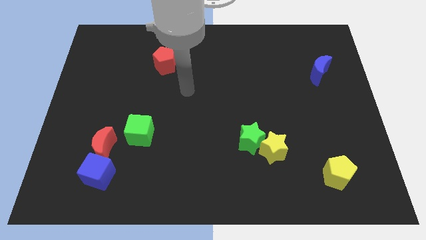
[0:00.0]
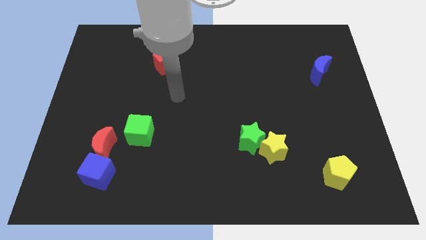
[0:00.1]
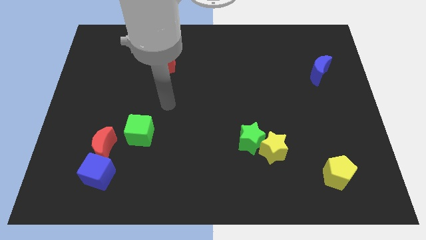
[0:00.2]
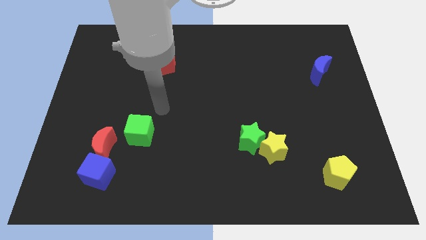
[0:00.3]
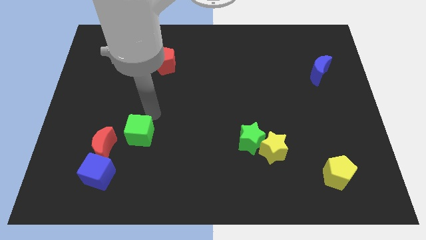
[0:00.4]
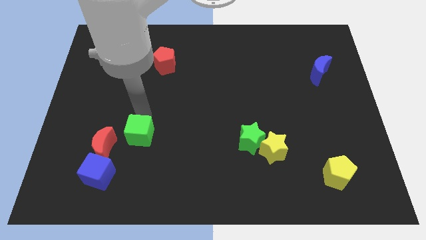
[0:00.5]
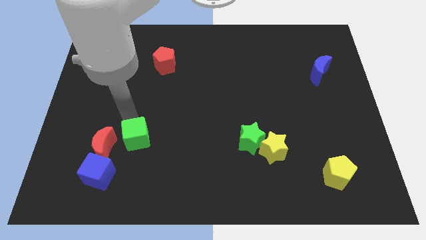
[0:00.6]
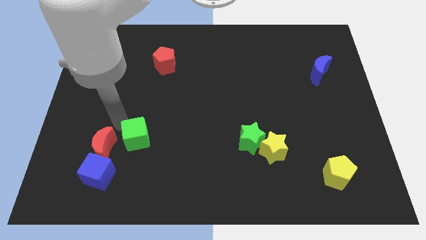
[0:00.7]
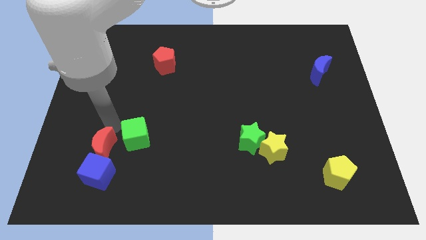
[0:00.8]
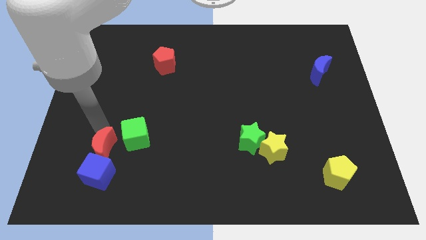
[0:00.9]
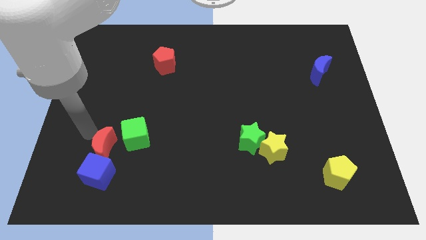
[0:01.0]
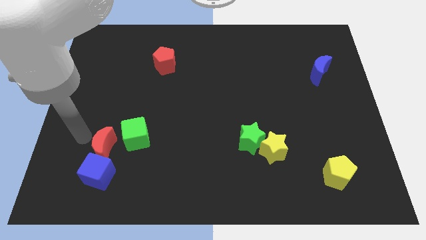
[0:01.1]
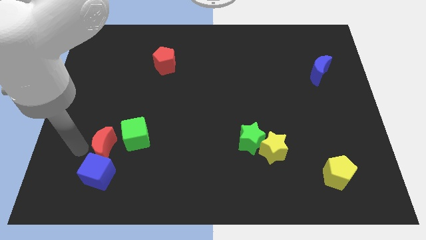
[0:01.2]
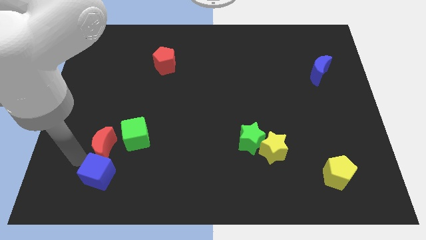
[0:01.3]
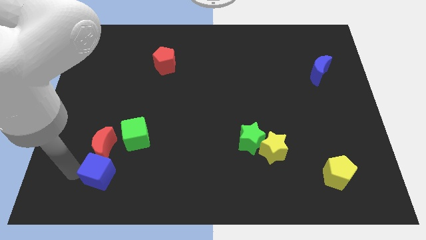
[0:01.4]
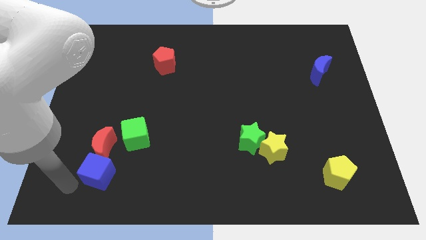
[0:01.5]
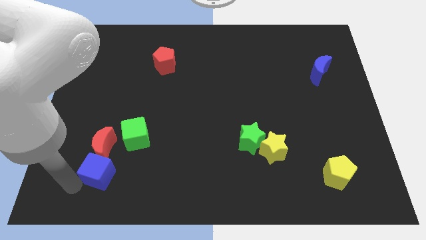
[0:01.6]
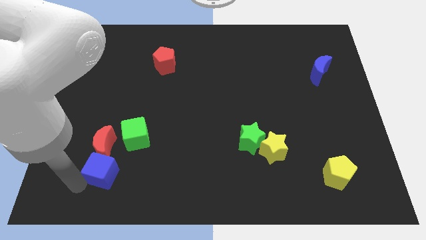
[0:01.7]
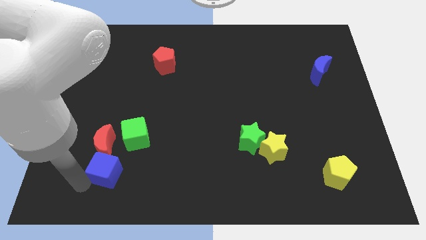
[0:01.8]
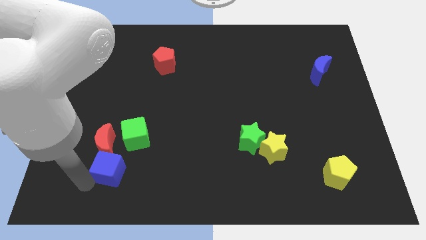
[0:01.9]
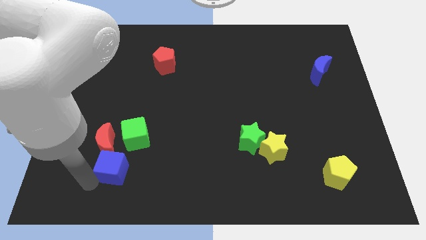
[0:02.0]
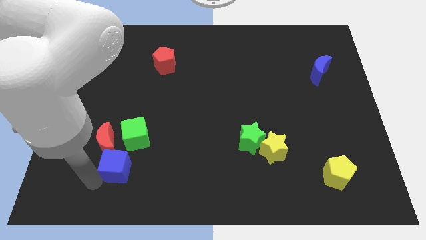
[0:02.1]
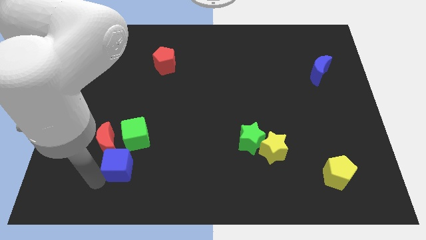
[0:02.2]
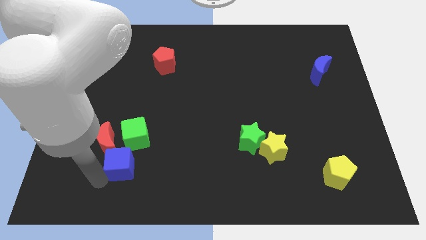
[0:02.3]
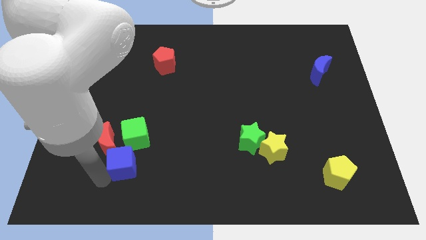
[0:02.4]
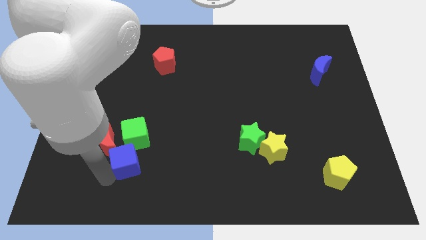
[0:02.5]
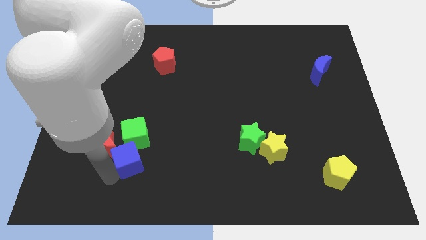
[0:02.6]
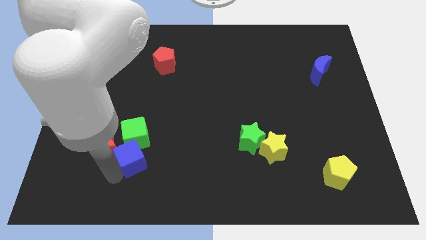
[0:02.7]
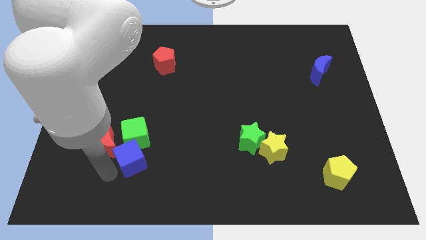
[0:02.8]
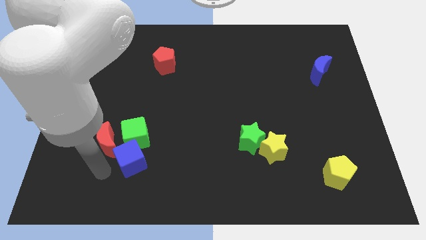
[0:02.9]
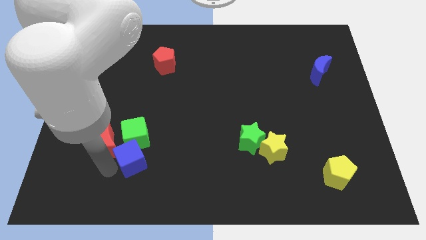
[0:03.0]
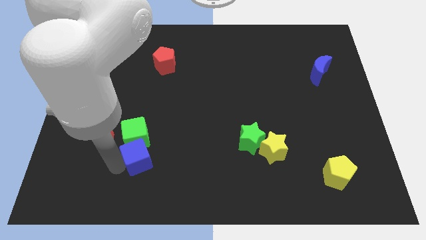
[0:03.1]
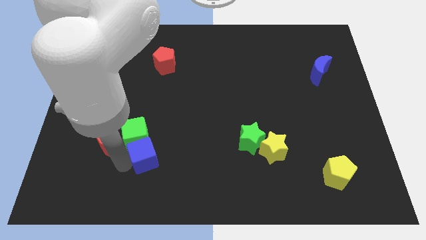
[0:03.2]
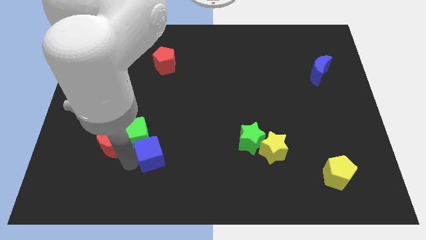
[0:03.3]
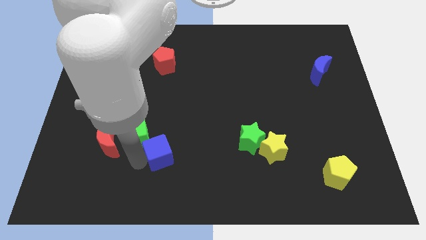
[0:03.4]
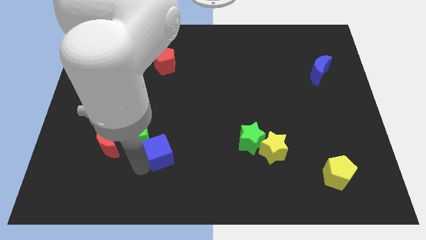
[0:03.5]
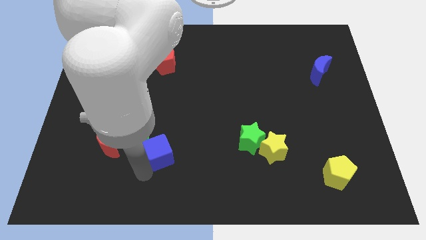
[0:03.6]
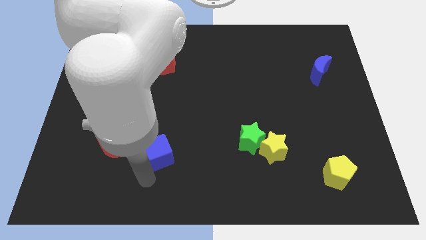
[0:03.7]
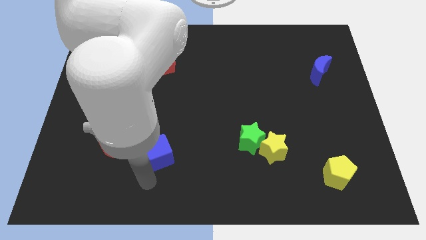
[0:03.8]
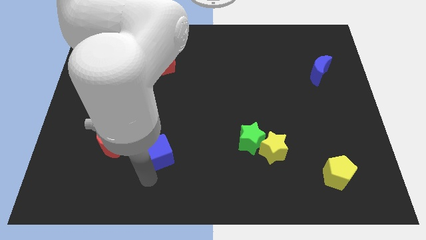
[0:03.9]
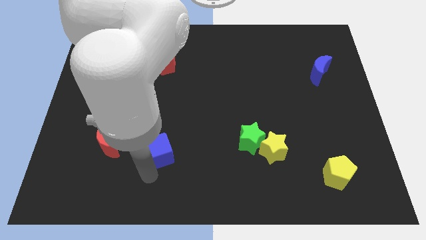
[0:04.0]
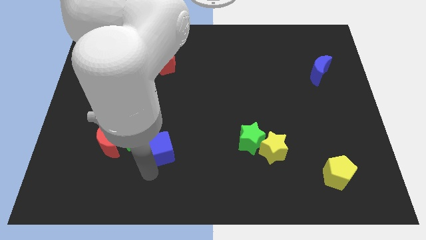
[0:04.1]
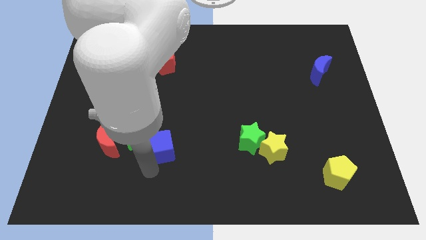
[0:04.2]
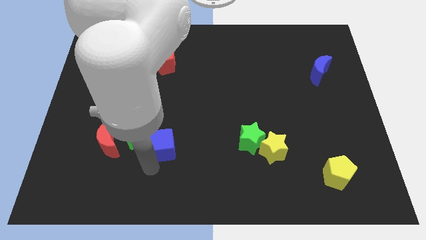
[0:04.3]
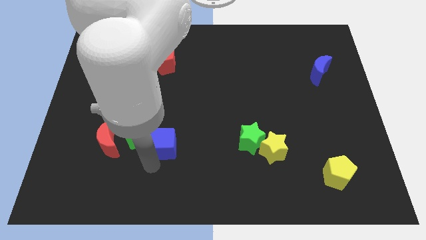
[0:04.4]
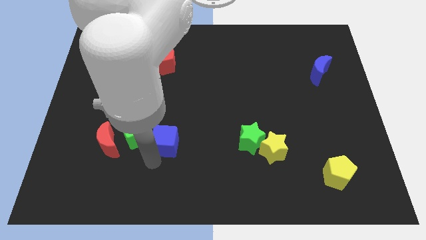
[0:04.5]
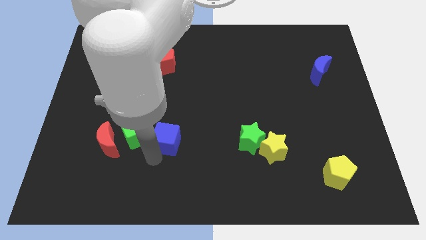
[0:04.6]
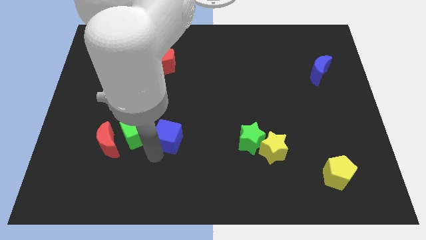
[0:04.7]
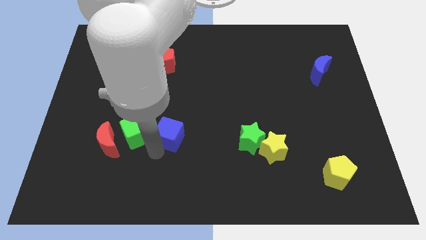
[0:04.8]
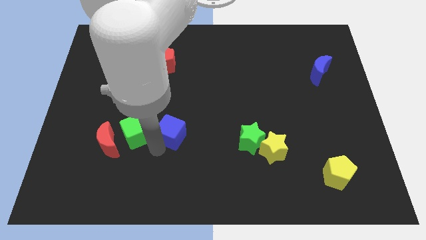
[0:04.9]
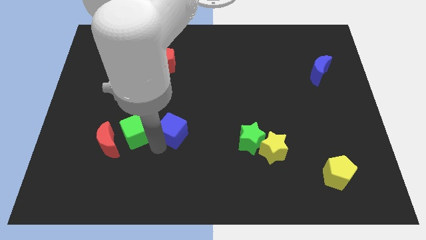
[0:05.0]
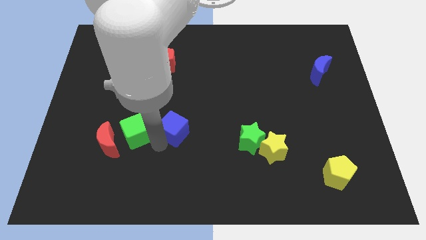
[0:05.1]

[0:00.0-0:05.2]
move the blue cube to the middle

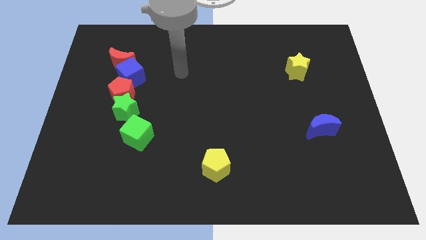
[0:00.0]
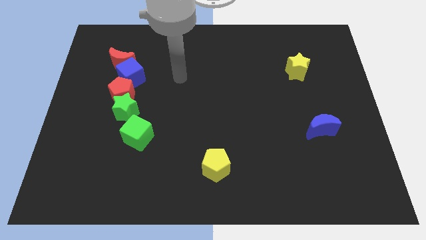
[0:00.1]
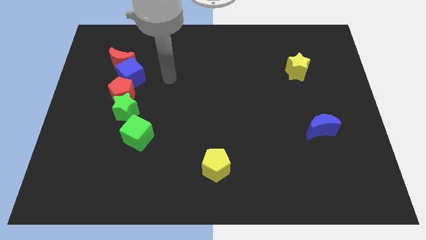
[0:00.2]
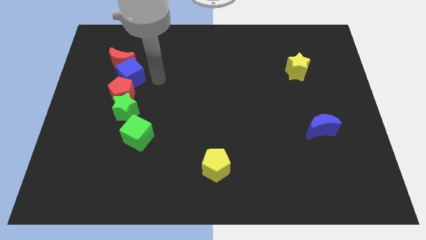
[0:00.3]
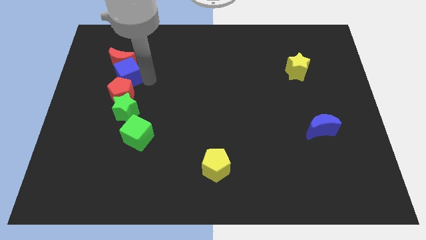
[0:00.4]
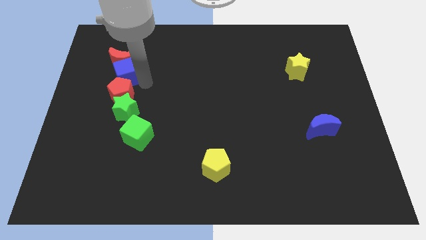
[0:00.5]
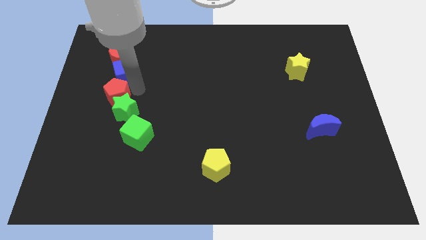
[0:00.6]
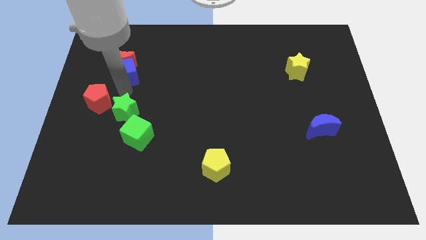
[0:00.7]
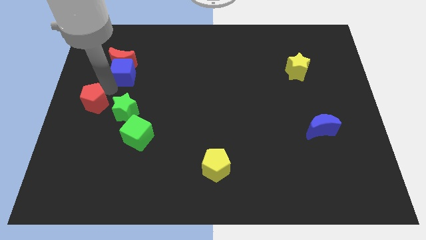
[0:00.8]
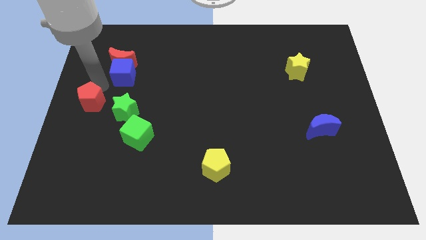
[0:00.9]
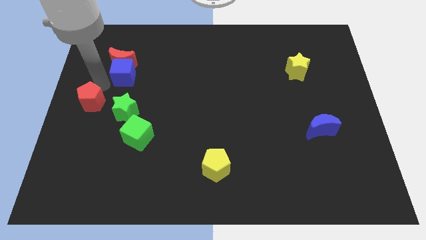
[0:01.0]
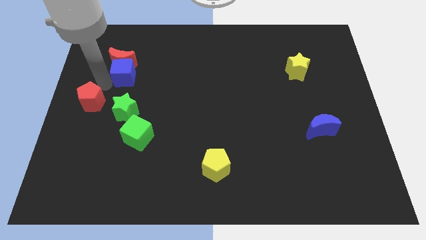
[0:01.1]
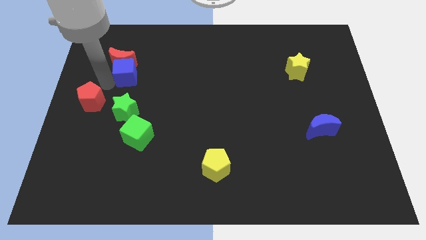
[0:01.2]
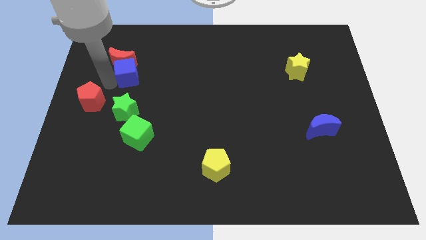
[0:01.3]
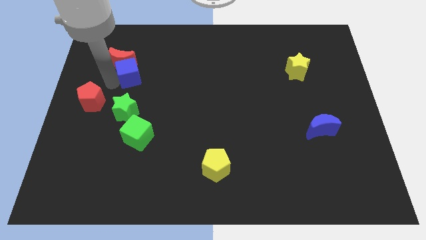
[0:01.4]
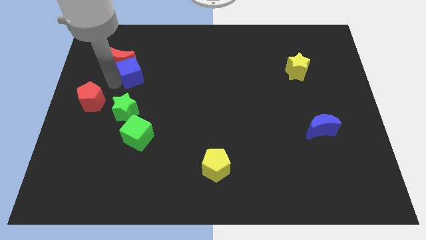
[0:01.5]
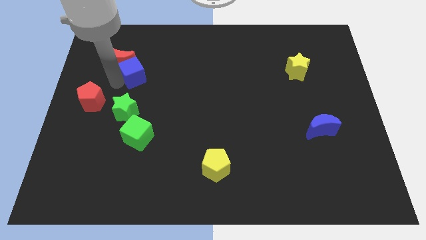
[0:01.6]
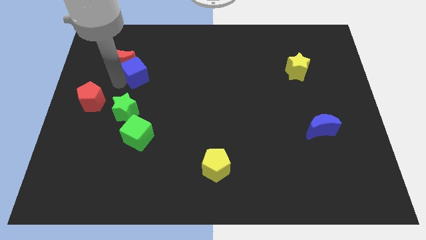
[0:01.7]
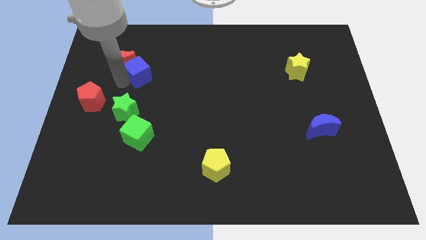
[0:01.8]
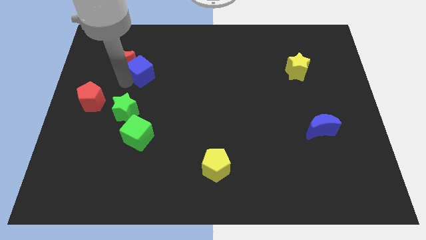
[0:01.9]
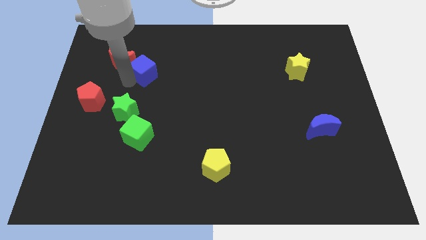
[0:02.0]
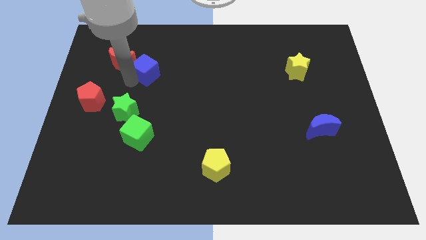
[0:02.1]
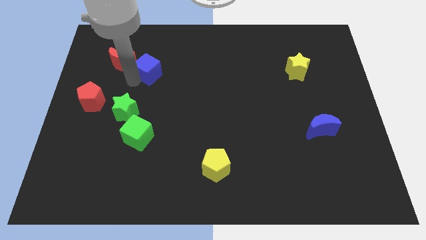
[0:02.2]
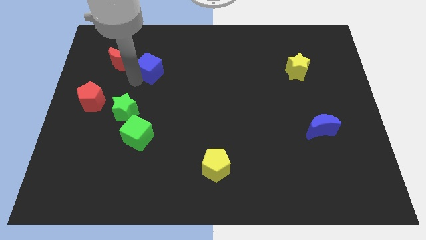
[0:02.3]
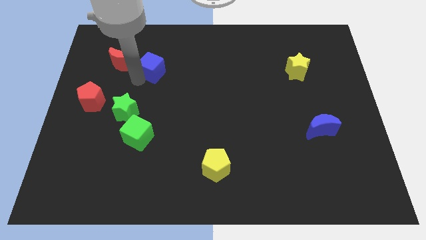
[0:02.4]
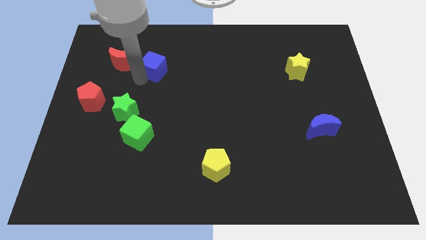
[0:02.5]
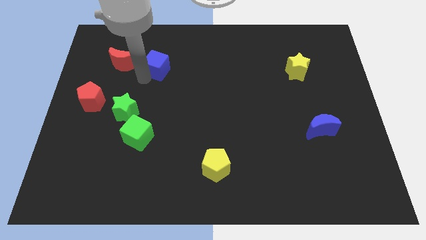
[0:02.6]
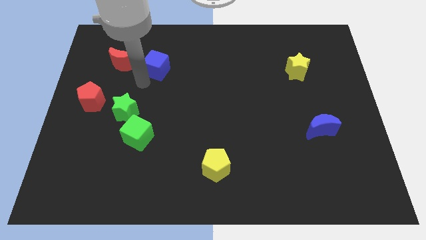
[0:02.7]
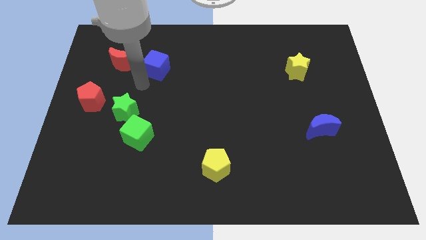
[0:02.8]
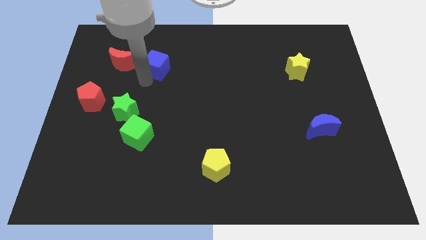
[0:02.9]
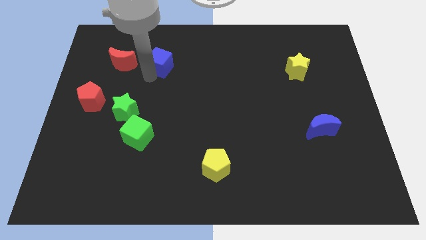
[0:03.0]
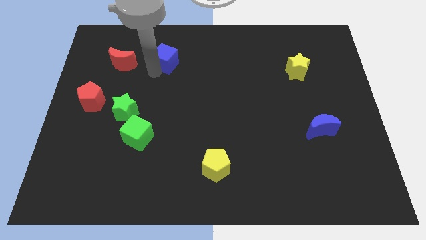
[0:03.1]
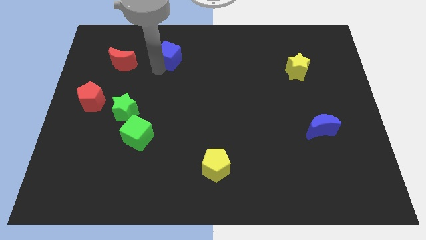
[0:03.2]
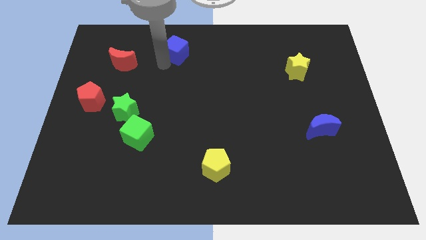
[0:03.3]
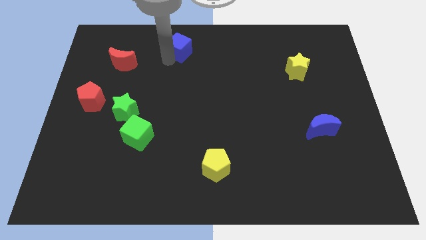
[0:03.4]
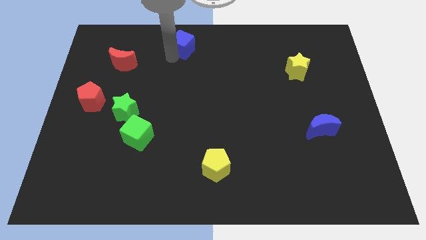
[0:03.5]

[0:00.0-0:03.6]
move the blue cube to the top side
